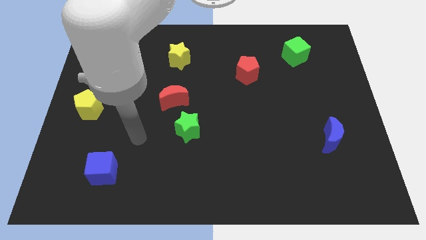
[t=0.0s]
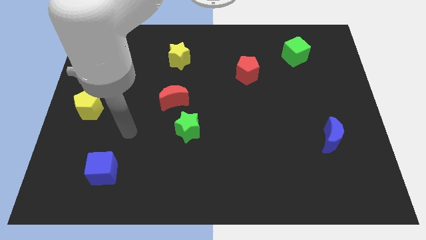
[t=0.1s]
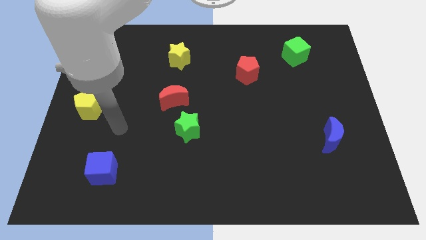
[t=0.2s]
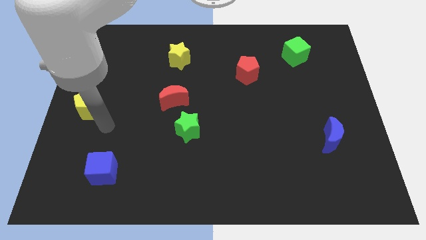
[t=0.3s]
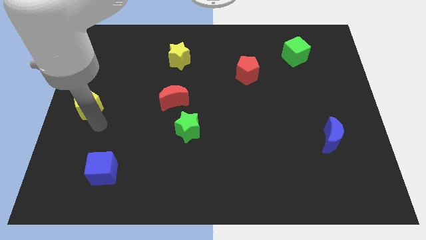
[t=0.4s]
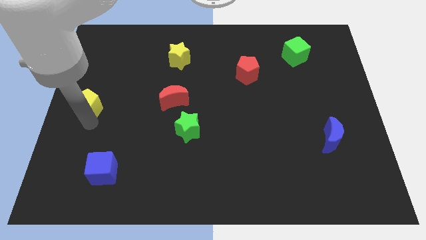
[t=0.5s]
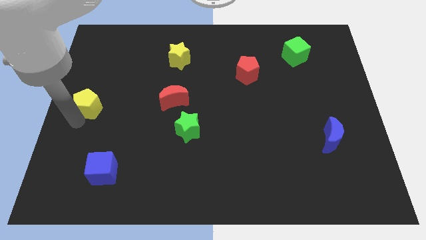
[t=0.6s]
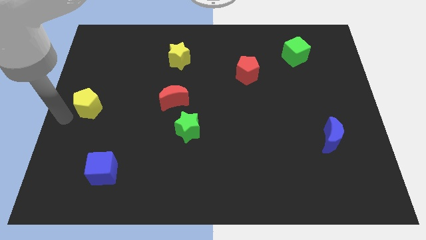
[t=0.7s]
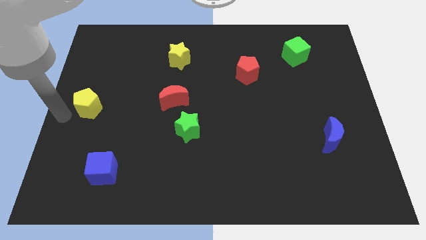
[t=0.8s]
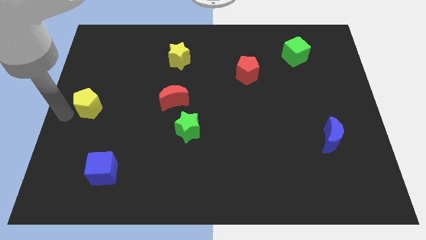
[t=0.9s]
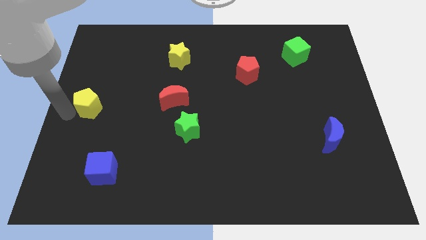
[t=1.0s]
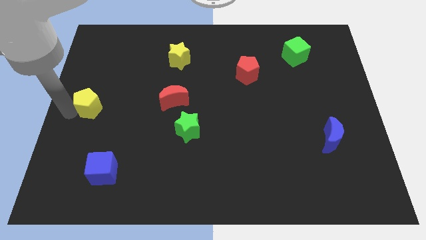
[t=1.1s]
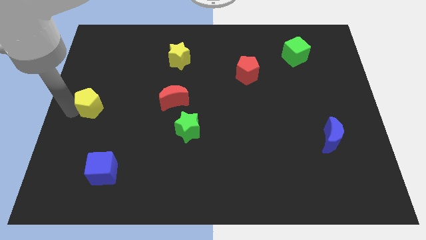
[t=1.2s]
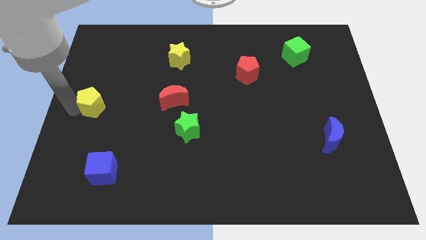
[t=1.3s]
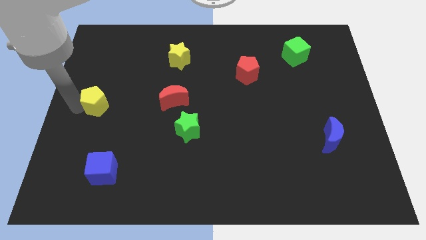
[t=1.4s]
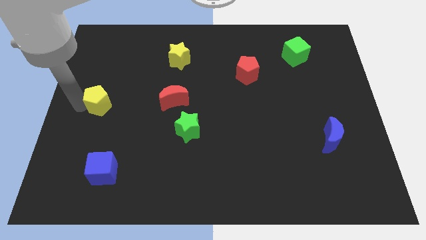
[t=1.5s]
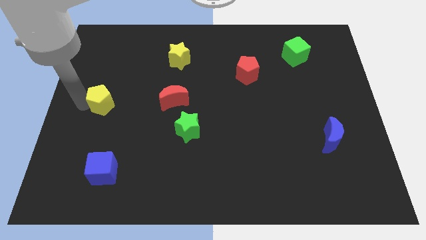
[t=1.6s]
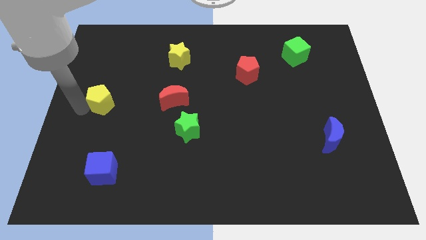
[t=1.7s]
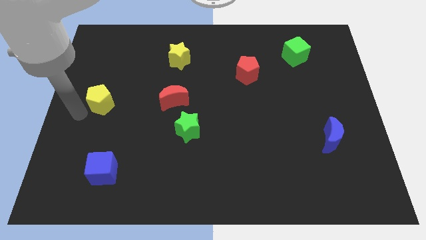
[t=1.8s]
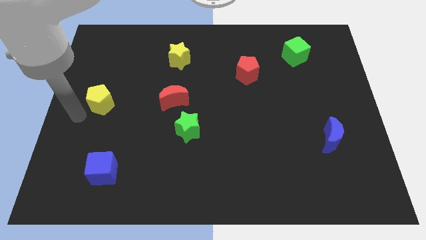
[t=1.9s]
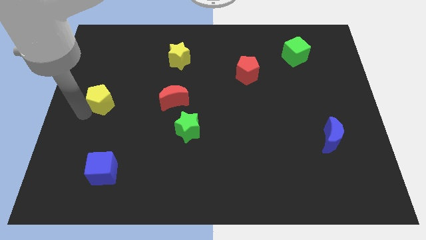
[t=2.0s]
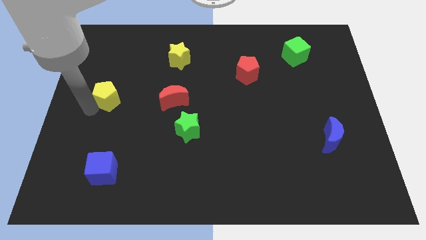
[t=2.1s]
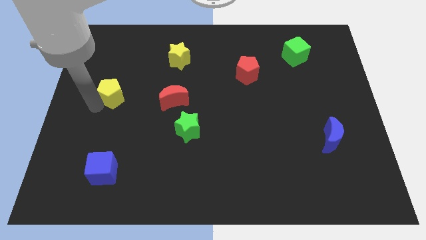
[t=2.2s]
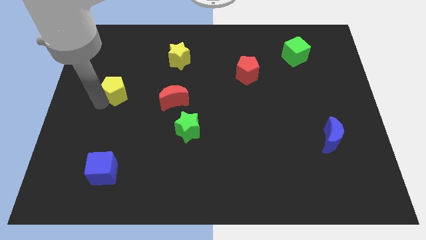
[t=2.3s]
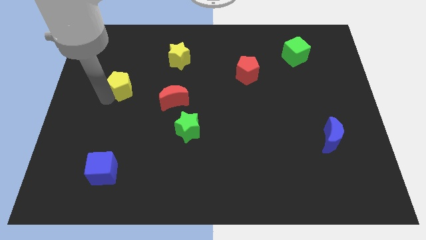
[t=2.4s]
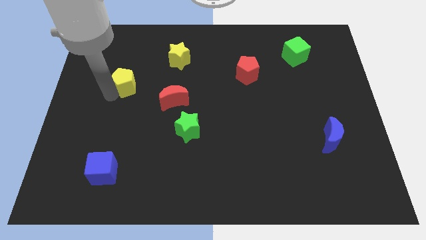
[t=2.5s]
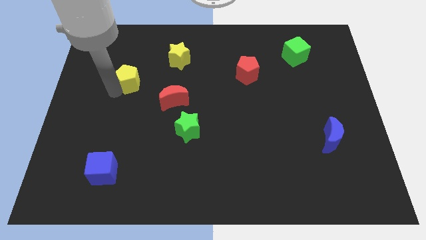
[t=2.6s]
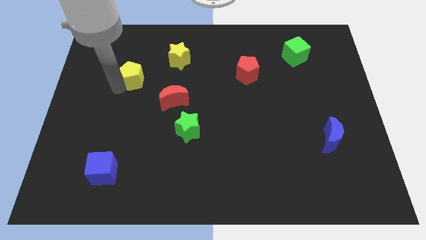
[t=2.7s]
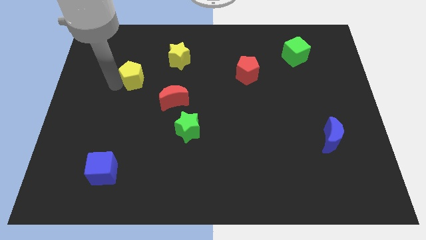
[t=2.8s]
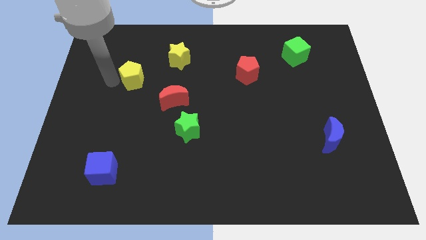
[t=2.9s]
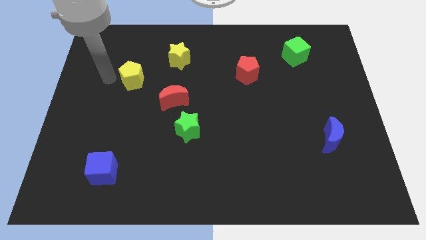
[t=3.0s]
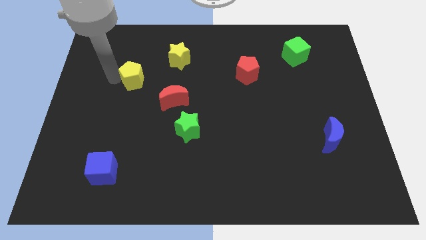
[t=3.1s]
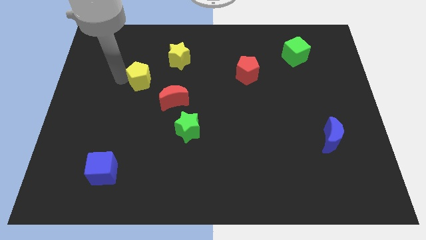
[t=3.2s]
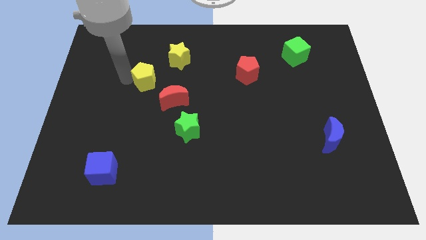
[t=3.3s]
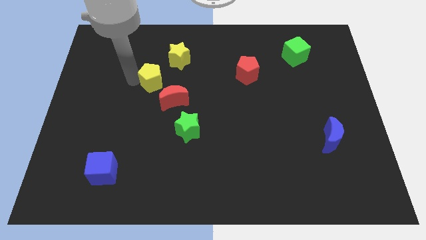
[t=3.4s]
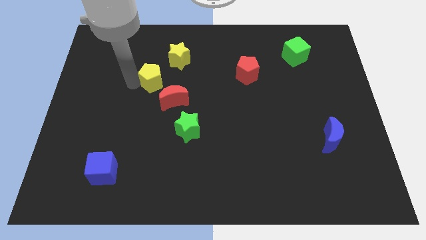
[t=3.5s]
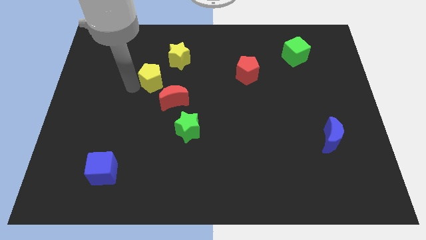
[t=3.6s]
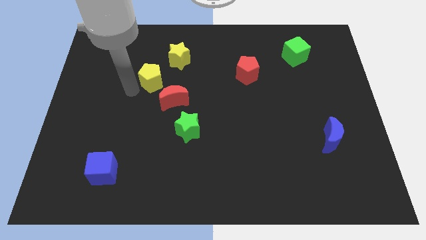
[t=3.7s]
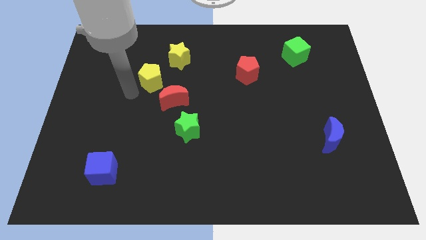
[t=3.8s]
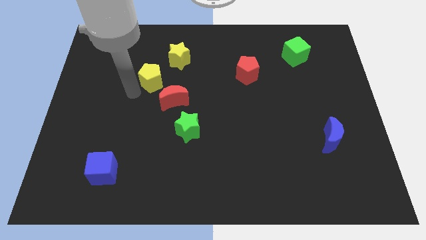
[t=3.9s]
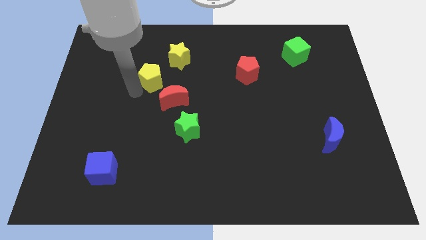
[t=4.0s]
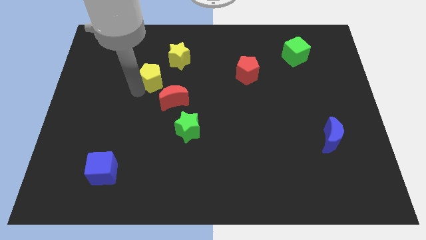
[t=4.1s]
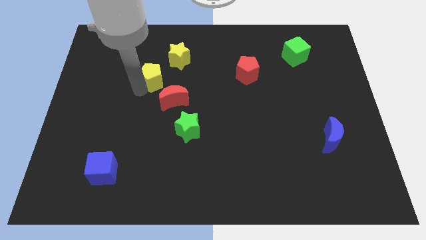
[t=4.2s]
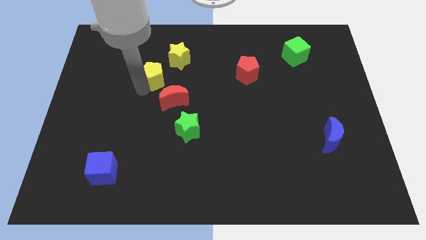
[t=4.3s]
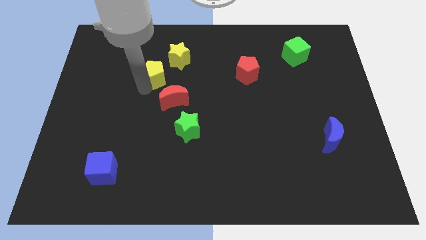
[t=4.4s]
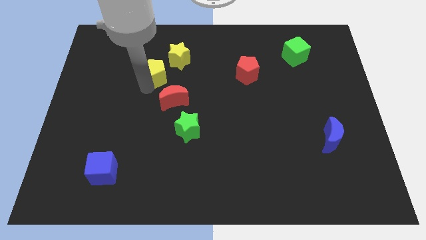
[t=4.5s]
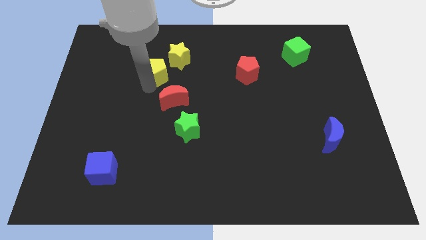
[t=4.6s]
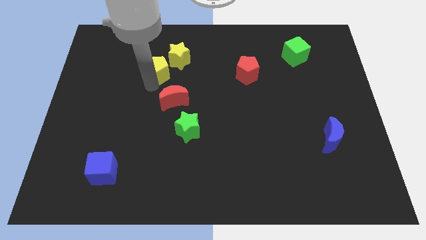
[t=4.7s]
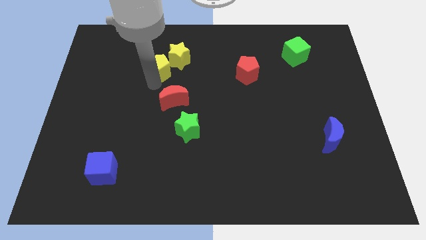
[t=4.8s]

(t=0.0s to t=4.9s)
move the yellow pentagon to the yellow star

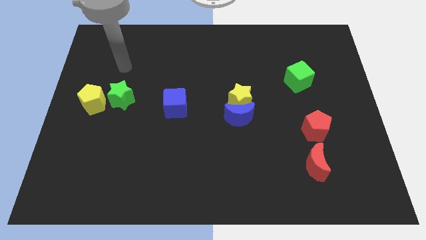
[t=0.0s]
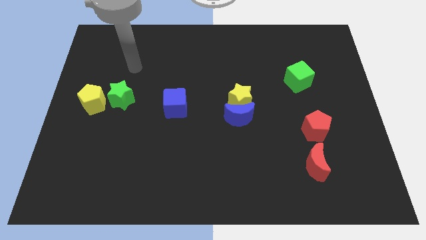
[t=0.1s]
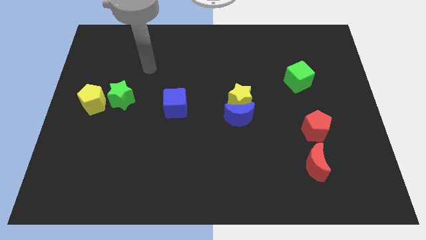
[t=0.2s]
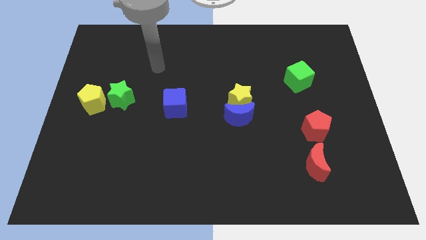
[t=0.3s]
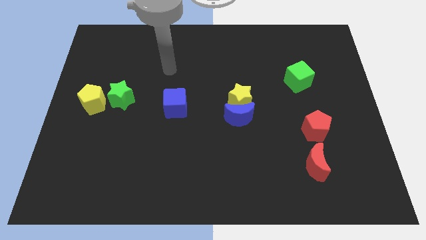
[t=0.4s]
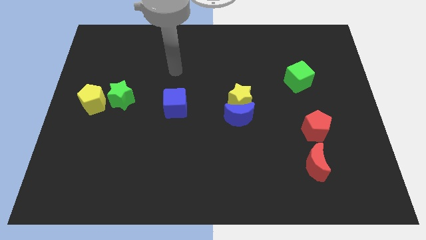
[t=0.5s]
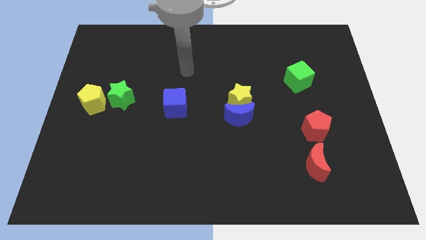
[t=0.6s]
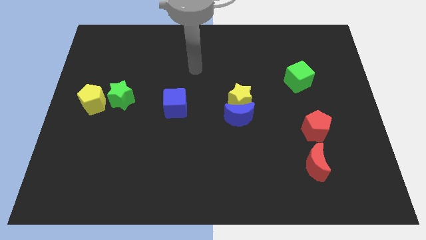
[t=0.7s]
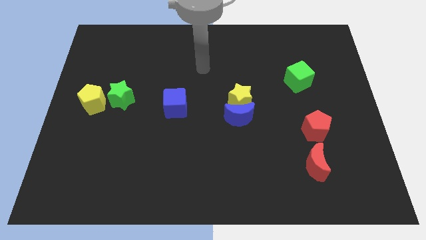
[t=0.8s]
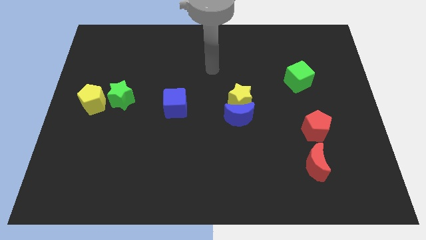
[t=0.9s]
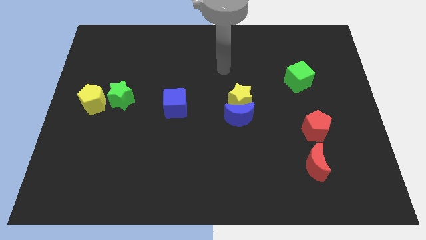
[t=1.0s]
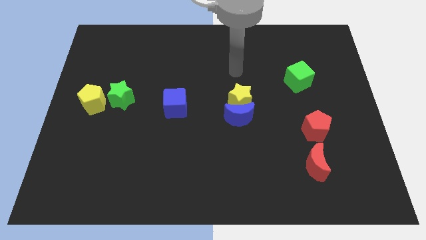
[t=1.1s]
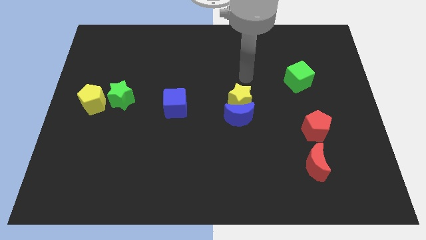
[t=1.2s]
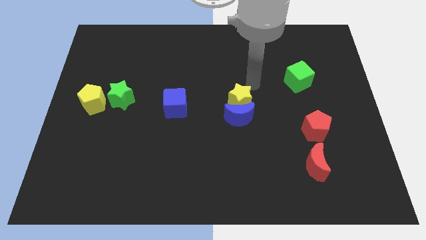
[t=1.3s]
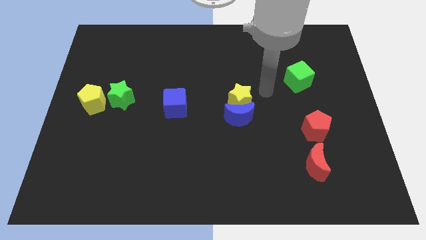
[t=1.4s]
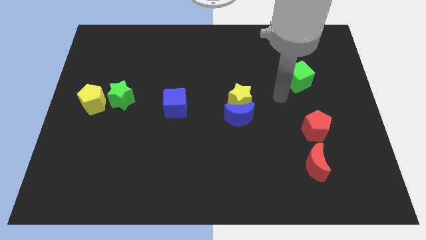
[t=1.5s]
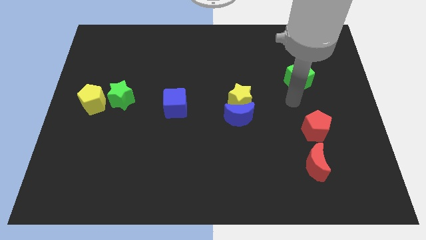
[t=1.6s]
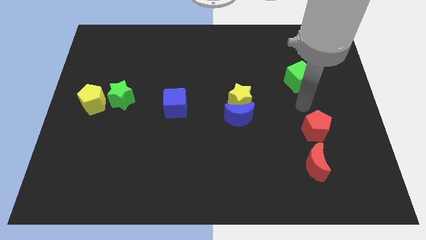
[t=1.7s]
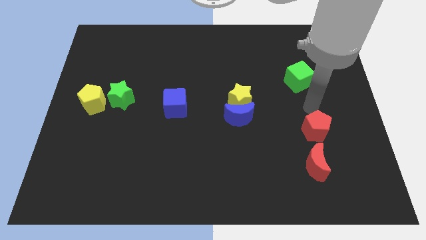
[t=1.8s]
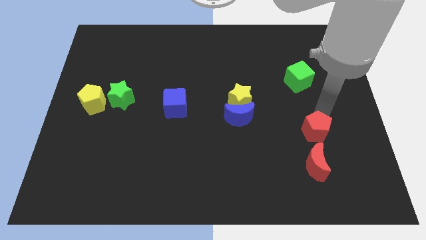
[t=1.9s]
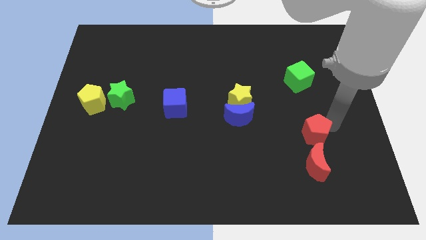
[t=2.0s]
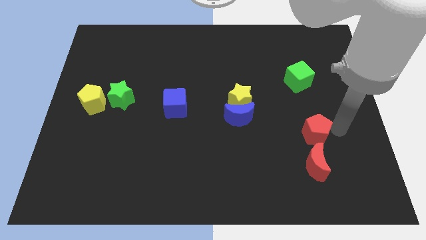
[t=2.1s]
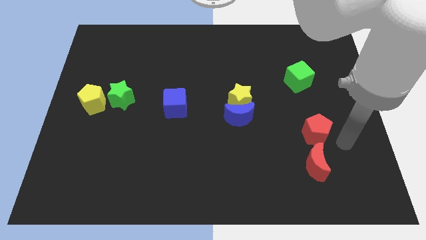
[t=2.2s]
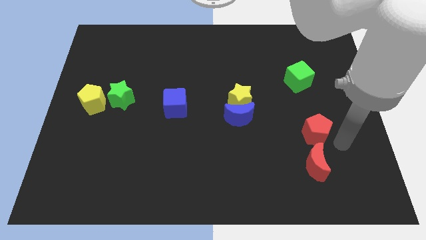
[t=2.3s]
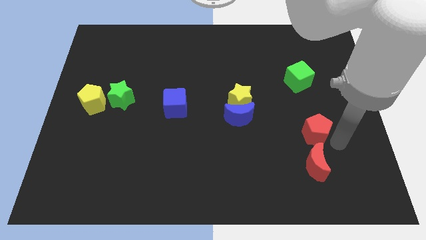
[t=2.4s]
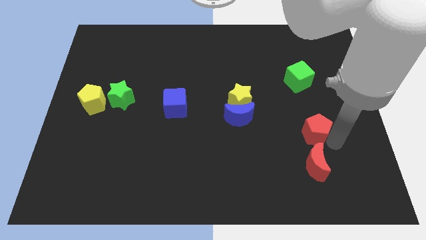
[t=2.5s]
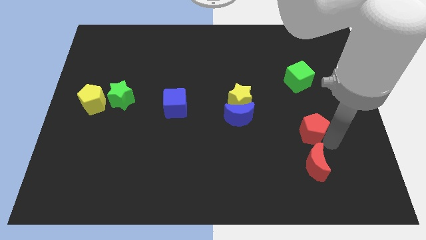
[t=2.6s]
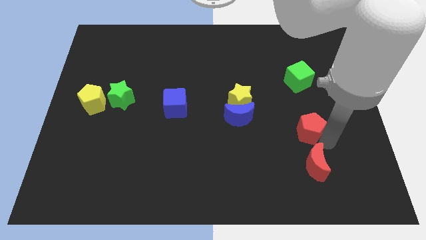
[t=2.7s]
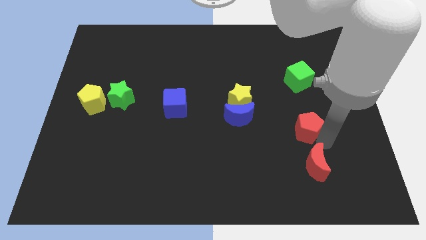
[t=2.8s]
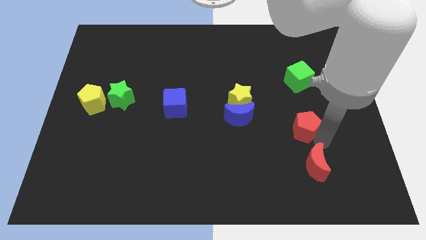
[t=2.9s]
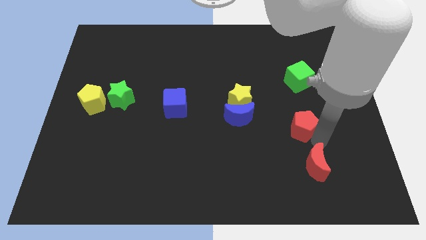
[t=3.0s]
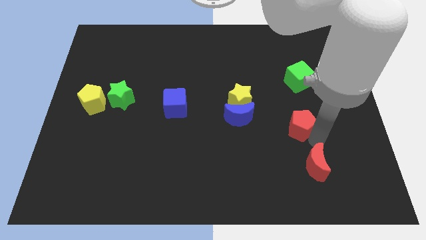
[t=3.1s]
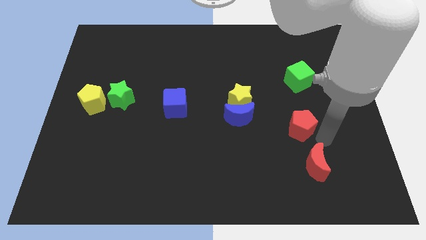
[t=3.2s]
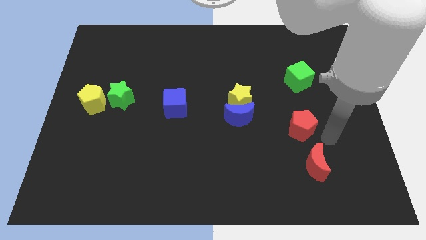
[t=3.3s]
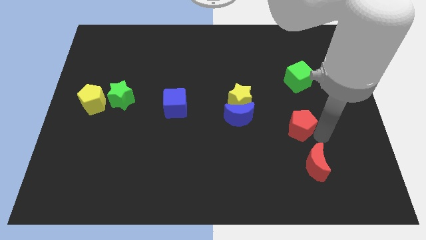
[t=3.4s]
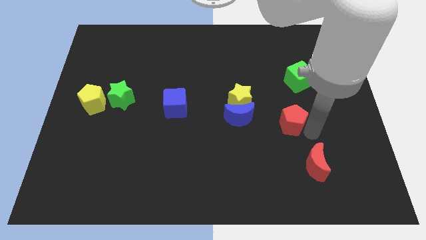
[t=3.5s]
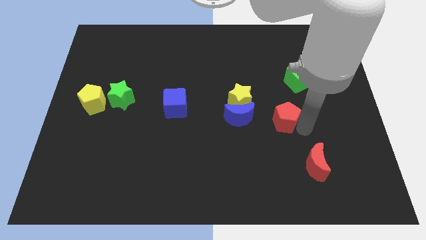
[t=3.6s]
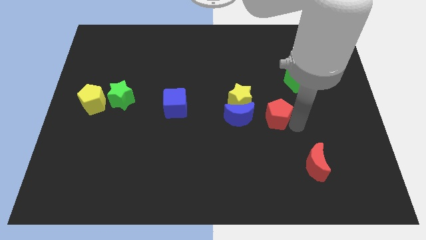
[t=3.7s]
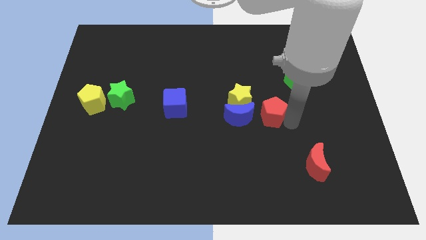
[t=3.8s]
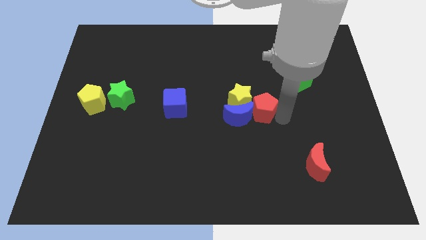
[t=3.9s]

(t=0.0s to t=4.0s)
move the red pentagon next to the blue moon
